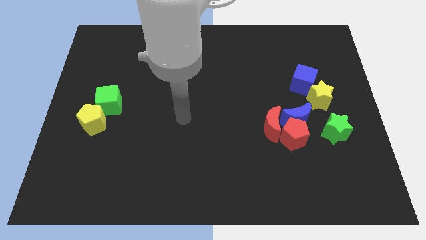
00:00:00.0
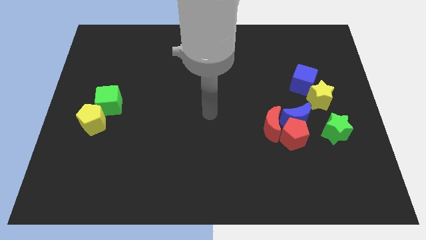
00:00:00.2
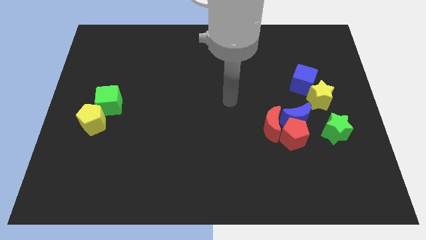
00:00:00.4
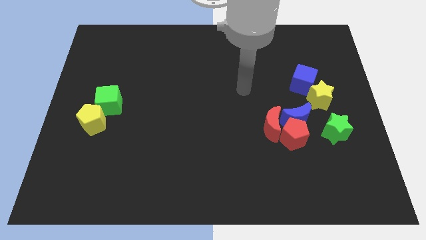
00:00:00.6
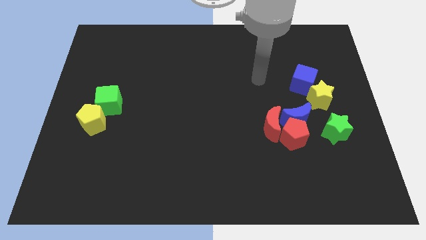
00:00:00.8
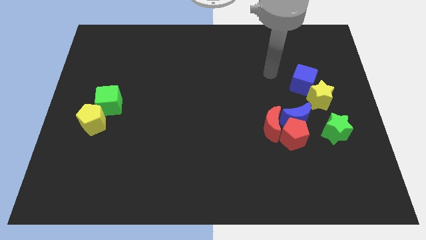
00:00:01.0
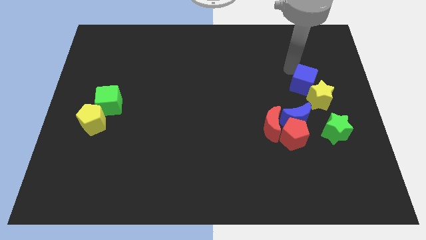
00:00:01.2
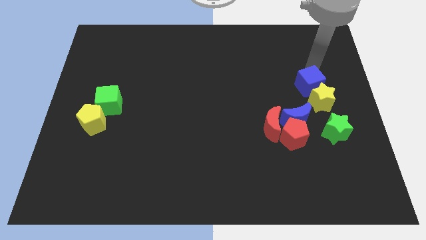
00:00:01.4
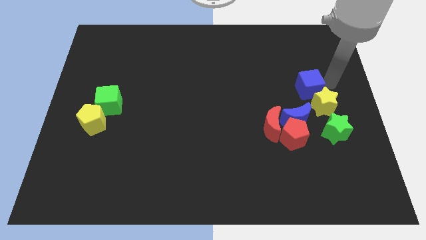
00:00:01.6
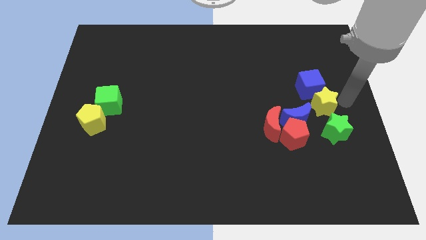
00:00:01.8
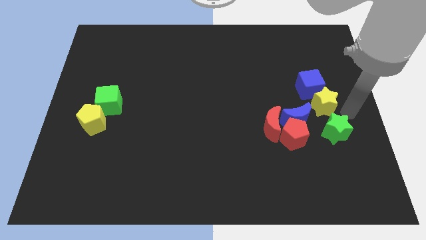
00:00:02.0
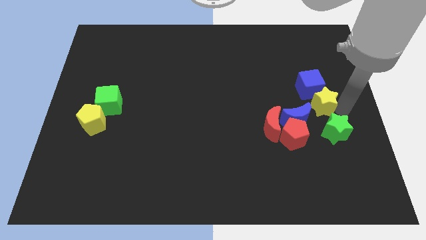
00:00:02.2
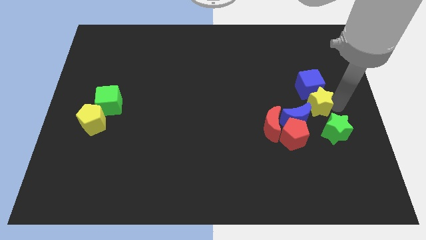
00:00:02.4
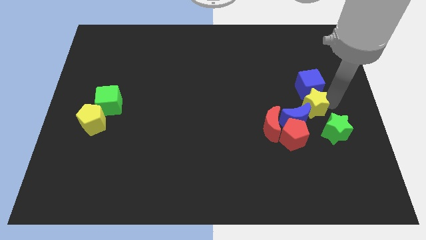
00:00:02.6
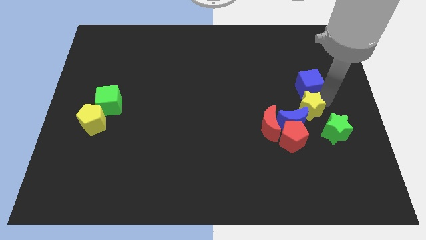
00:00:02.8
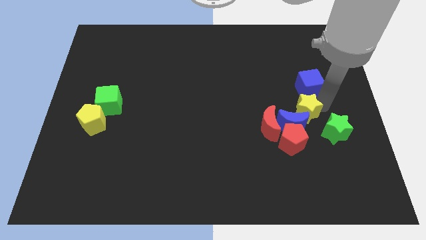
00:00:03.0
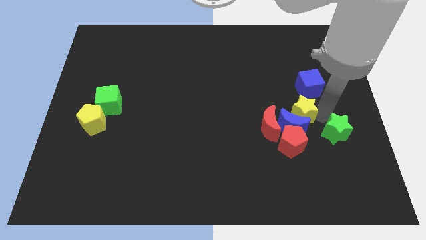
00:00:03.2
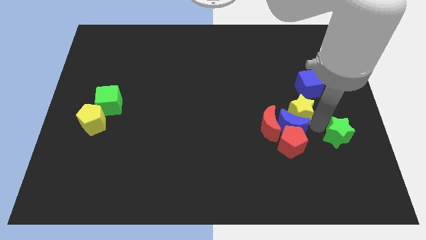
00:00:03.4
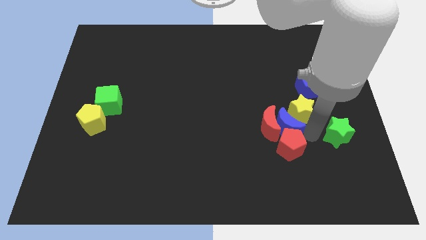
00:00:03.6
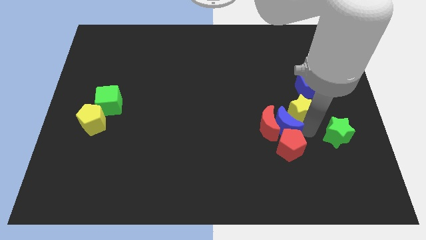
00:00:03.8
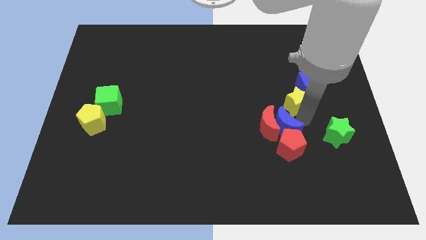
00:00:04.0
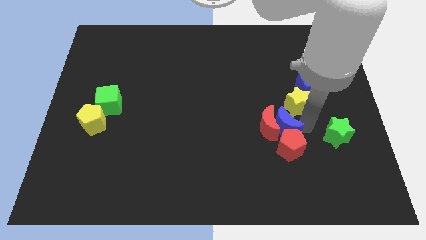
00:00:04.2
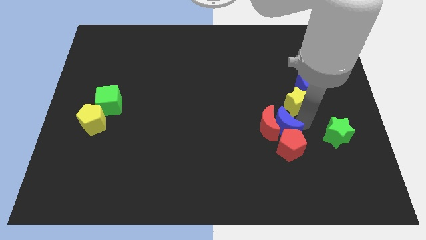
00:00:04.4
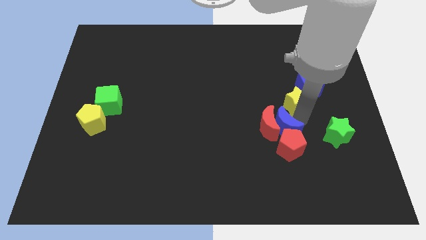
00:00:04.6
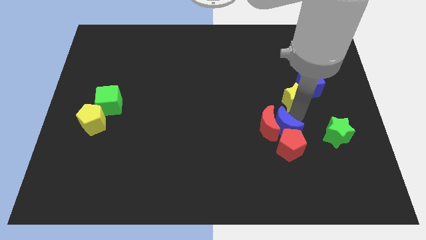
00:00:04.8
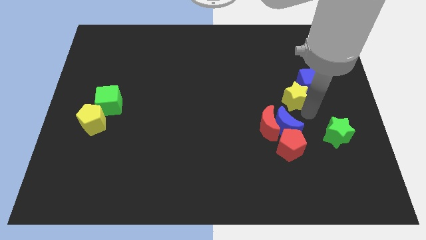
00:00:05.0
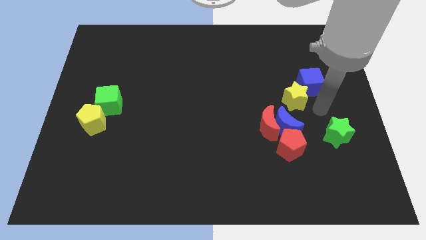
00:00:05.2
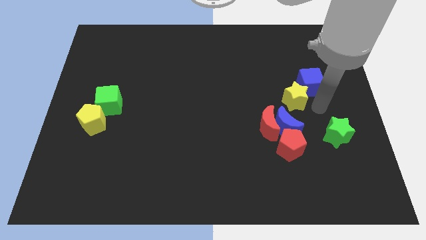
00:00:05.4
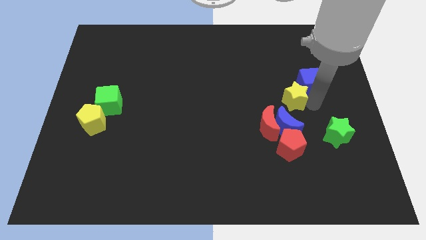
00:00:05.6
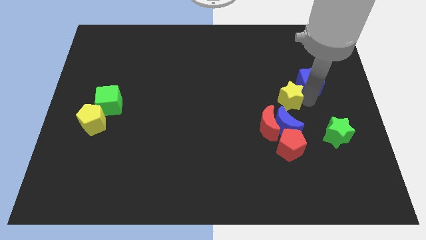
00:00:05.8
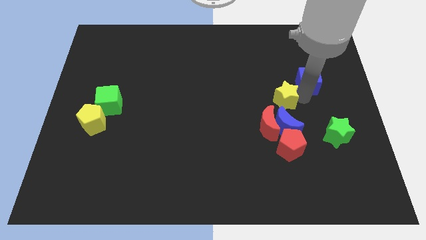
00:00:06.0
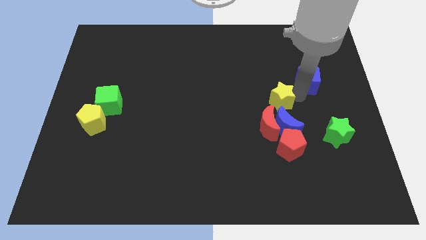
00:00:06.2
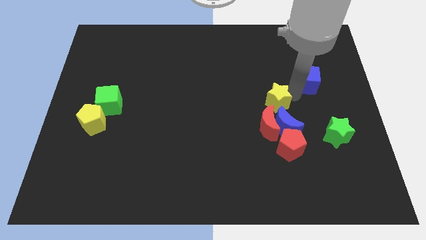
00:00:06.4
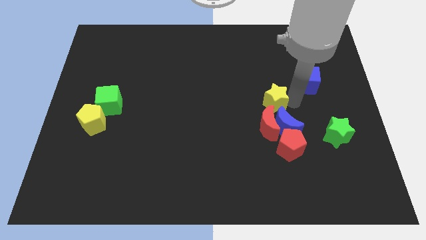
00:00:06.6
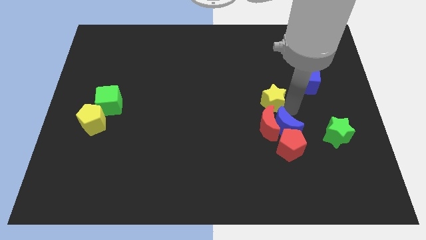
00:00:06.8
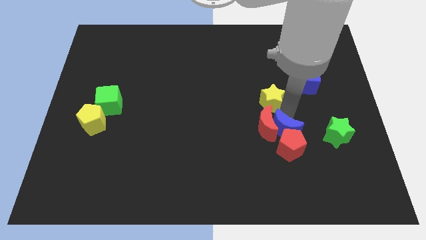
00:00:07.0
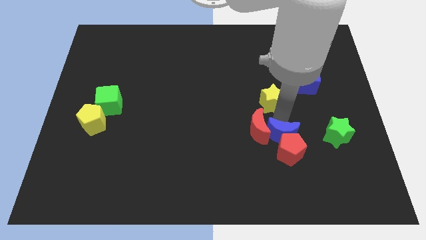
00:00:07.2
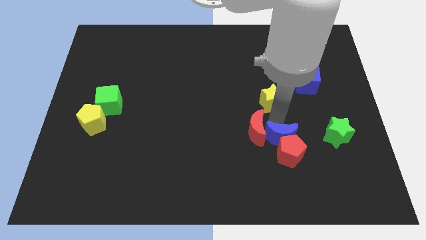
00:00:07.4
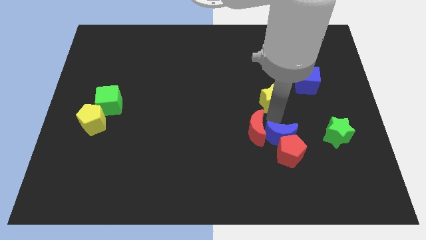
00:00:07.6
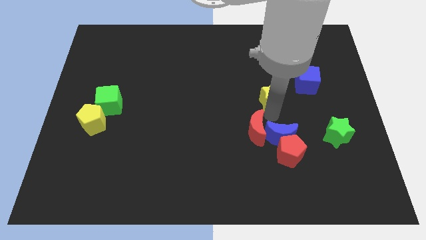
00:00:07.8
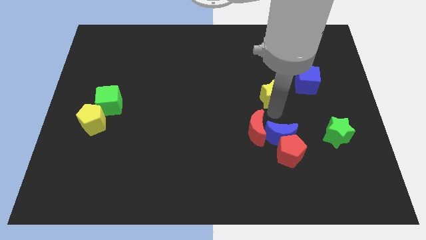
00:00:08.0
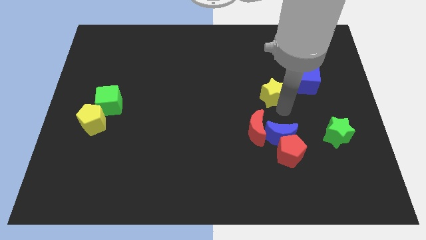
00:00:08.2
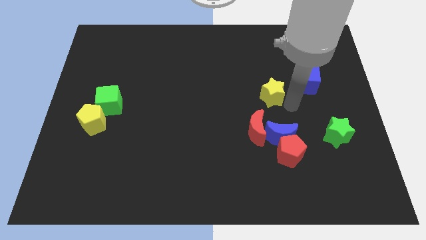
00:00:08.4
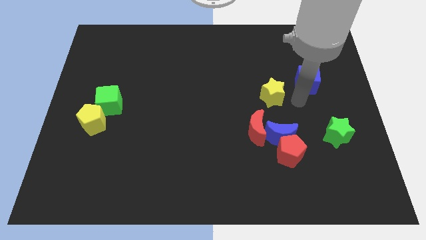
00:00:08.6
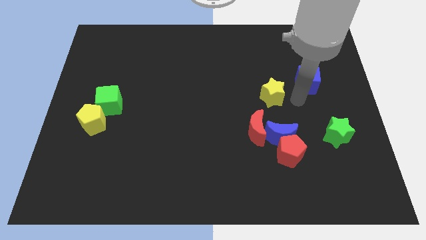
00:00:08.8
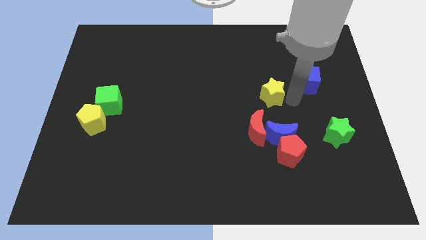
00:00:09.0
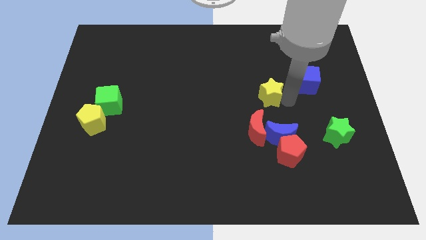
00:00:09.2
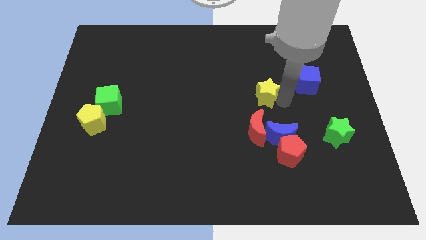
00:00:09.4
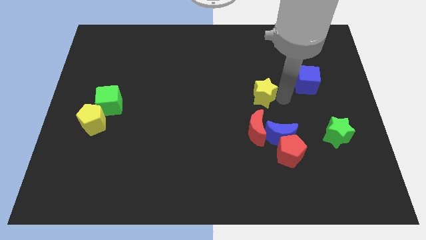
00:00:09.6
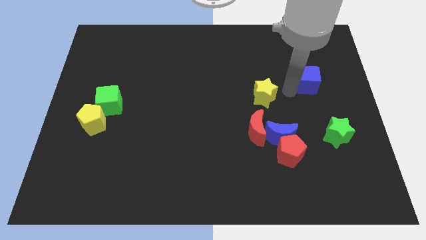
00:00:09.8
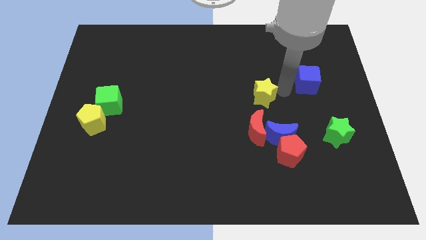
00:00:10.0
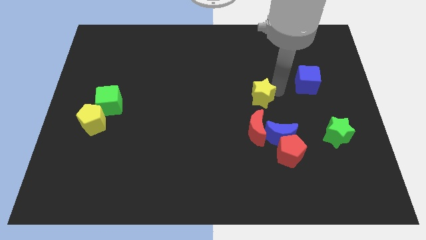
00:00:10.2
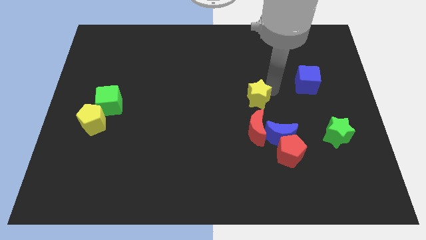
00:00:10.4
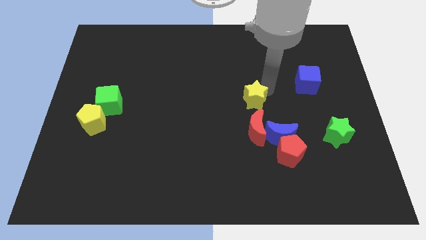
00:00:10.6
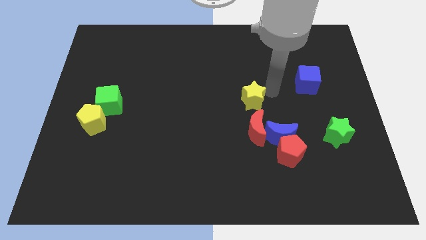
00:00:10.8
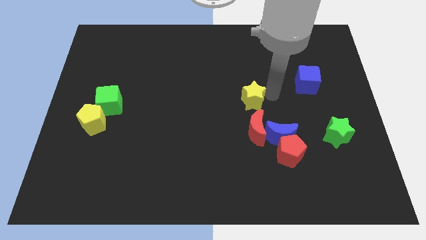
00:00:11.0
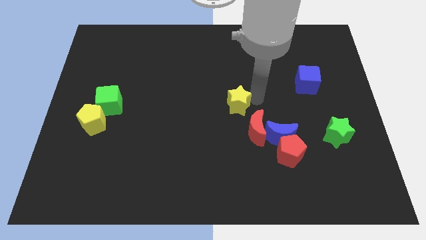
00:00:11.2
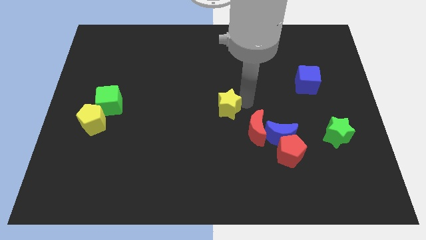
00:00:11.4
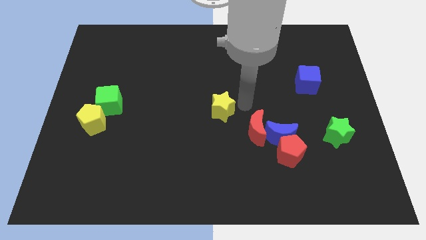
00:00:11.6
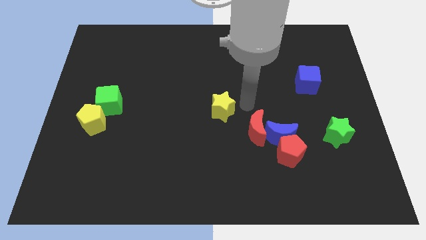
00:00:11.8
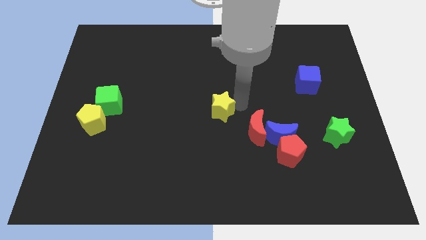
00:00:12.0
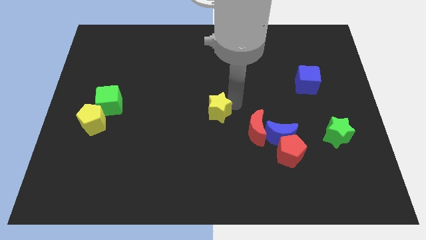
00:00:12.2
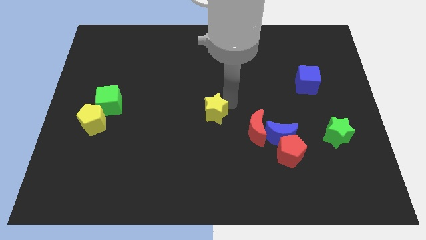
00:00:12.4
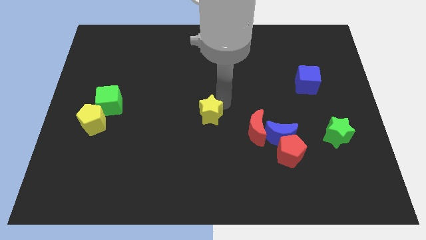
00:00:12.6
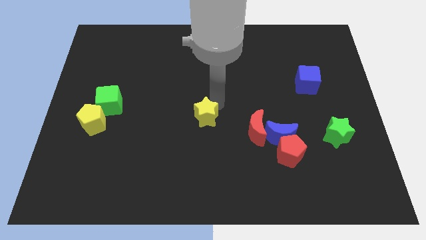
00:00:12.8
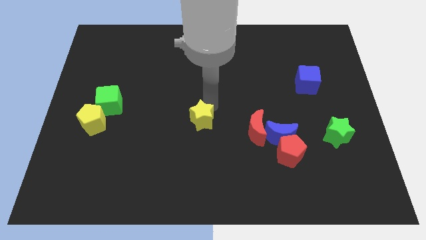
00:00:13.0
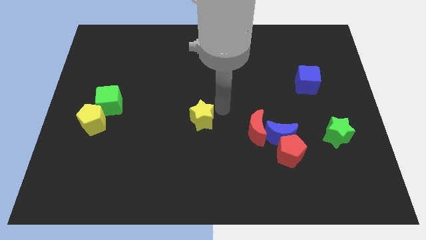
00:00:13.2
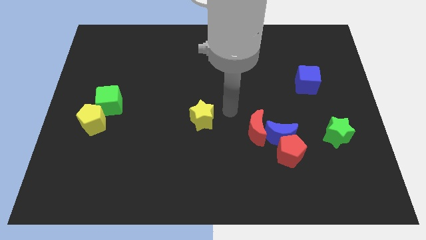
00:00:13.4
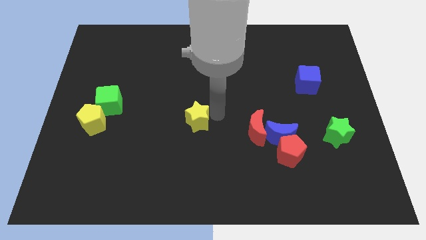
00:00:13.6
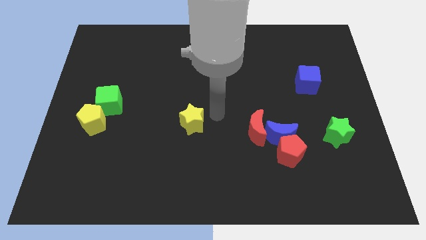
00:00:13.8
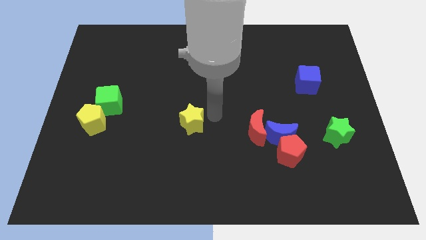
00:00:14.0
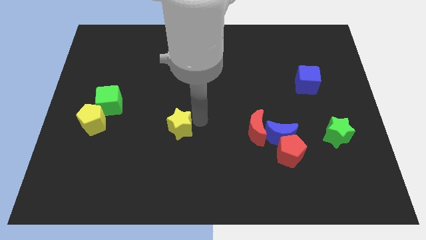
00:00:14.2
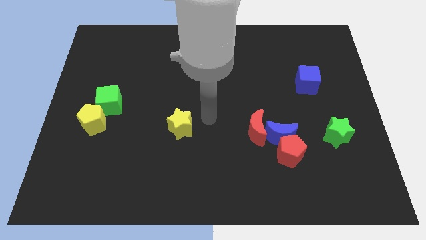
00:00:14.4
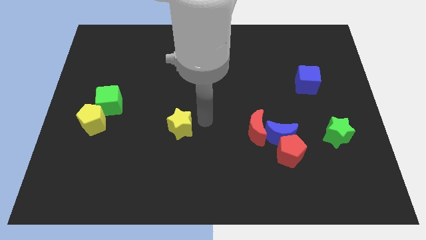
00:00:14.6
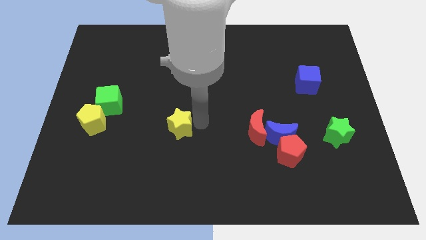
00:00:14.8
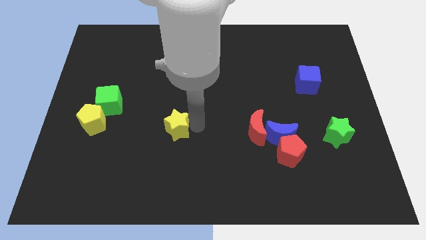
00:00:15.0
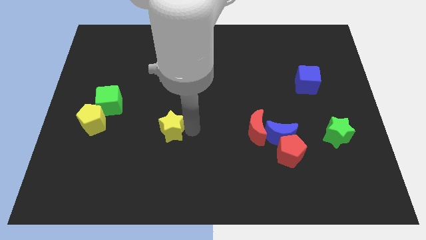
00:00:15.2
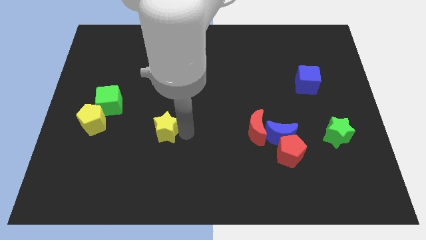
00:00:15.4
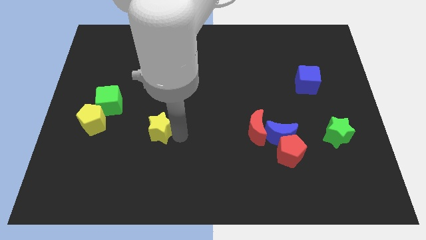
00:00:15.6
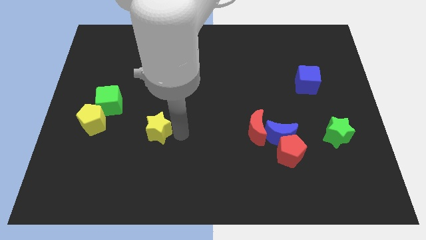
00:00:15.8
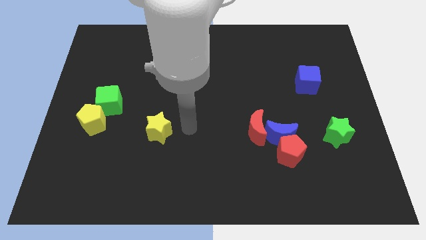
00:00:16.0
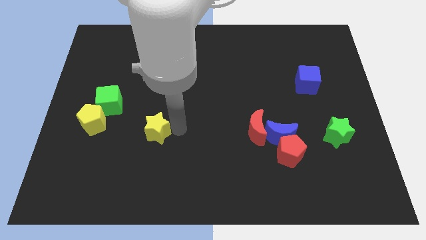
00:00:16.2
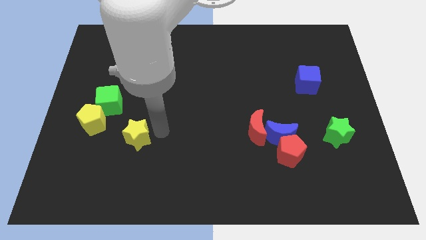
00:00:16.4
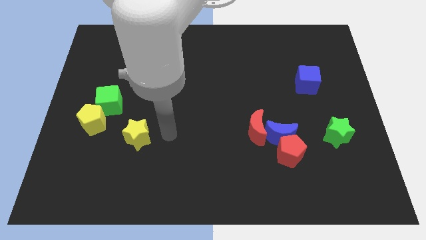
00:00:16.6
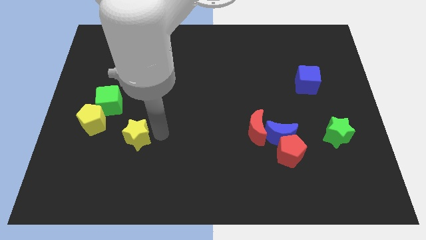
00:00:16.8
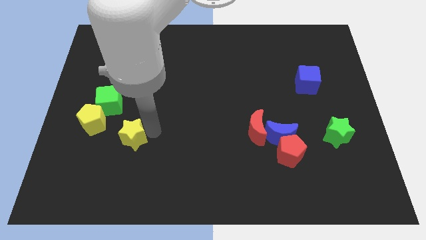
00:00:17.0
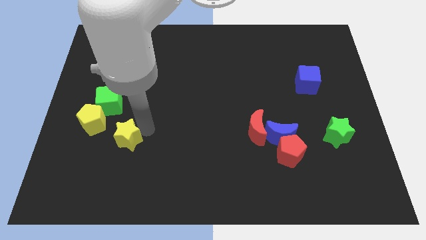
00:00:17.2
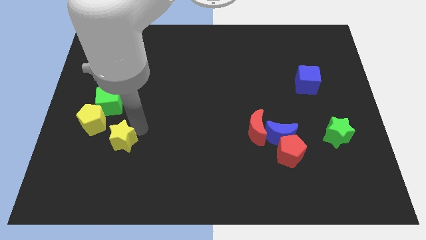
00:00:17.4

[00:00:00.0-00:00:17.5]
put the yellow star to the bottom side of the green cube
